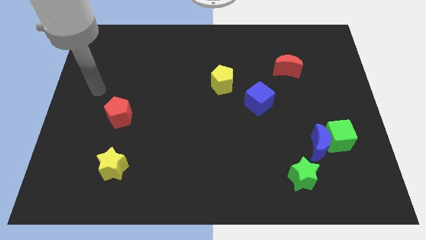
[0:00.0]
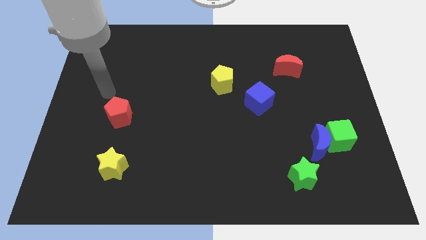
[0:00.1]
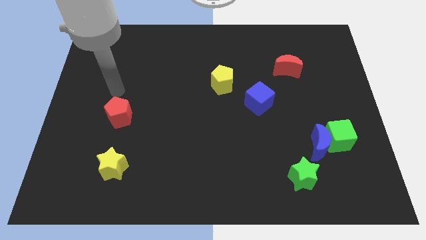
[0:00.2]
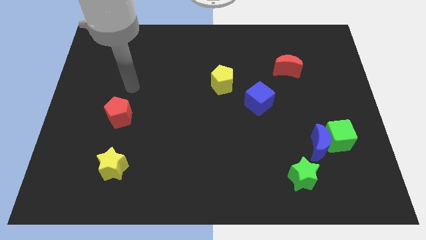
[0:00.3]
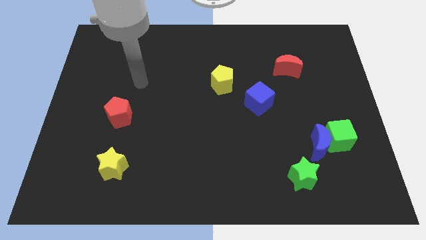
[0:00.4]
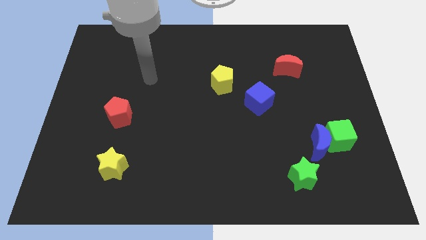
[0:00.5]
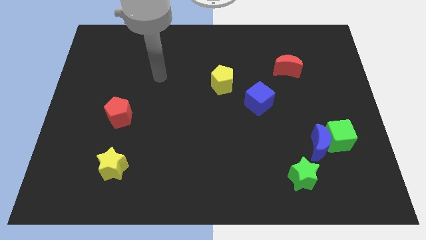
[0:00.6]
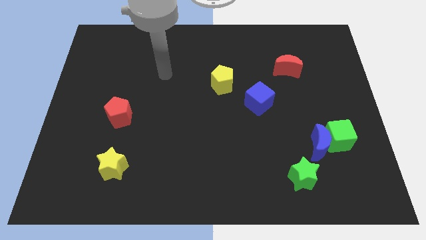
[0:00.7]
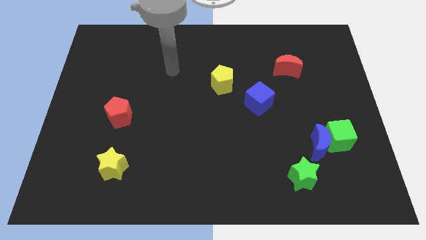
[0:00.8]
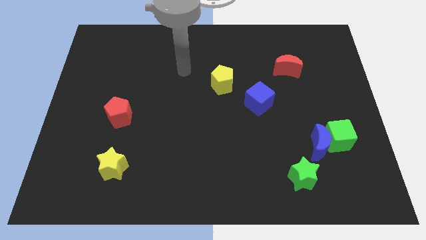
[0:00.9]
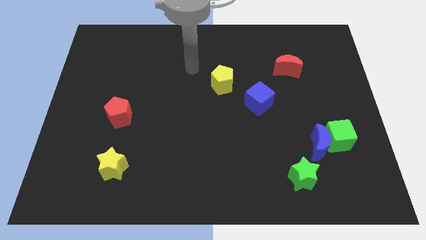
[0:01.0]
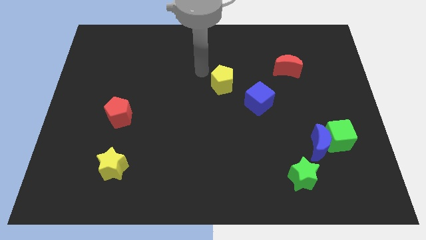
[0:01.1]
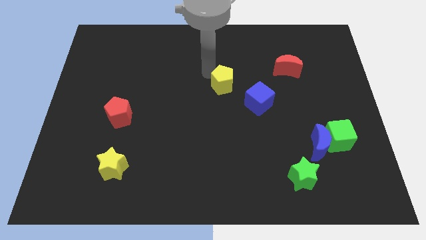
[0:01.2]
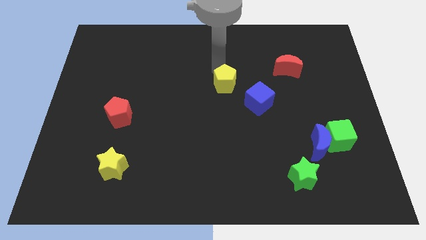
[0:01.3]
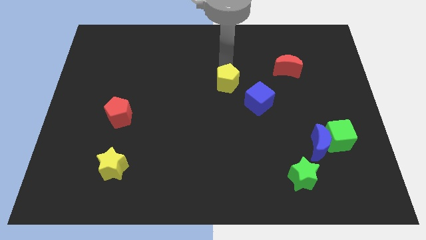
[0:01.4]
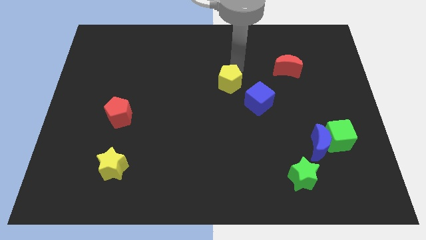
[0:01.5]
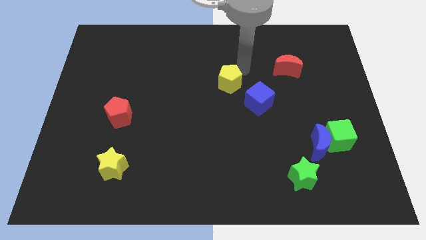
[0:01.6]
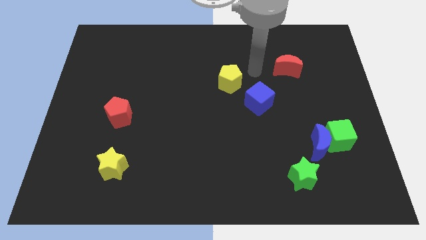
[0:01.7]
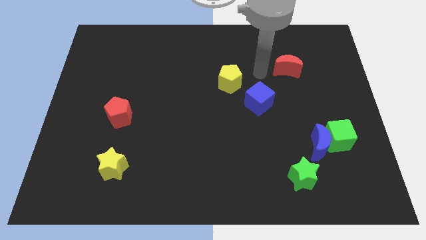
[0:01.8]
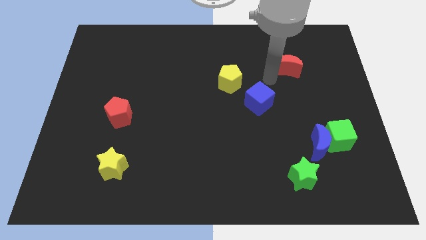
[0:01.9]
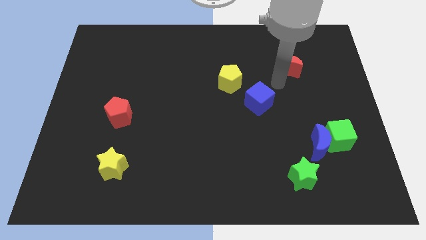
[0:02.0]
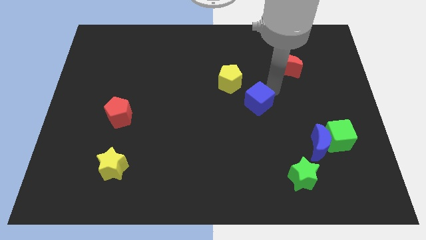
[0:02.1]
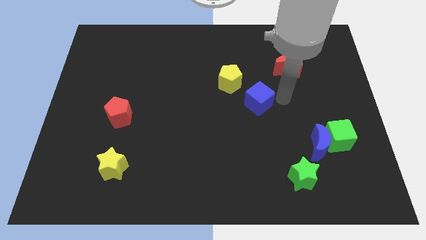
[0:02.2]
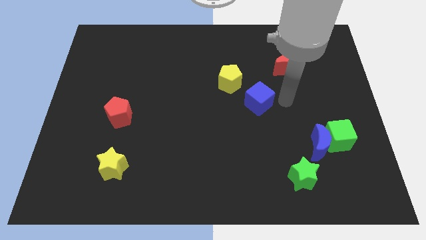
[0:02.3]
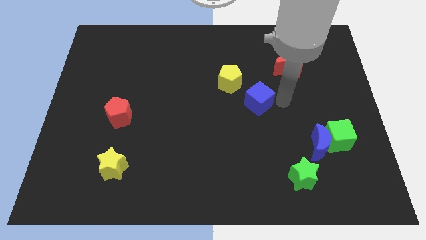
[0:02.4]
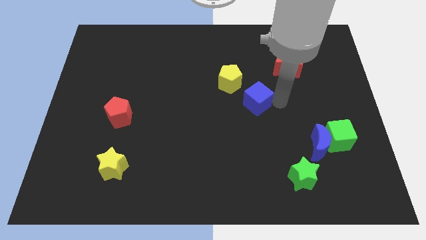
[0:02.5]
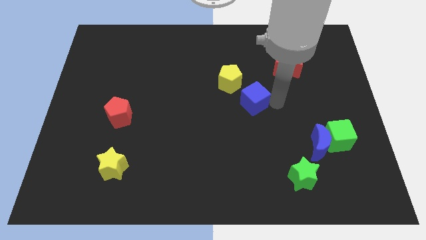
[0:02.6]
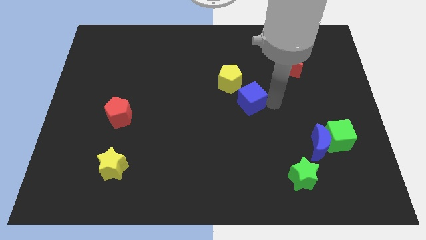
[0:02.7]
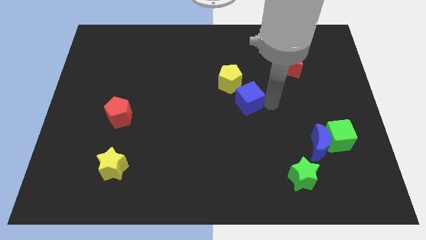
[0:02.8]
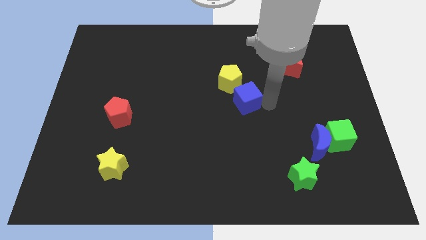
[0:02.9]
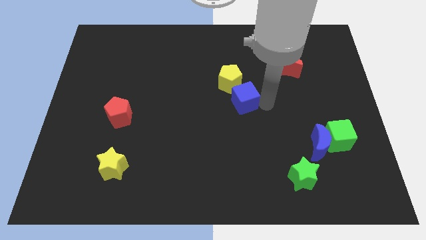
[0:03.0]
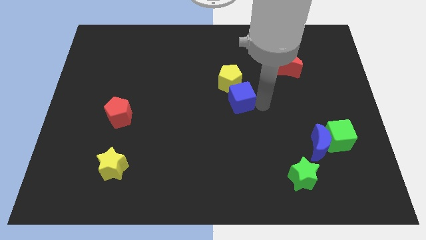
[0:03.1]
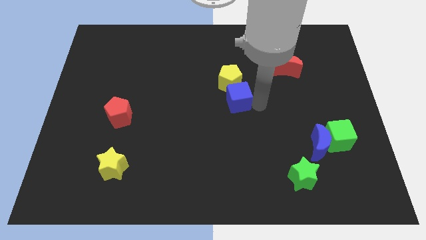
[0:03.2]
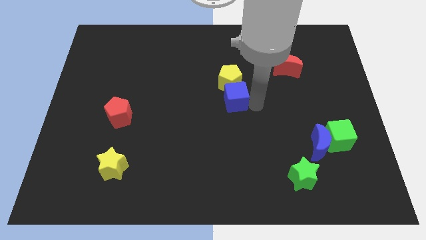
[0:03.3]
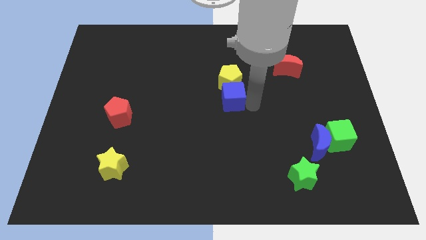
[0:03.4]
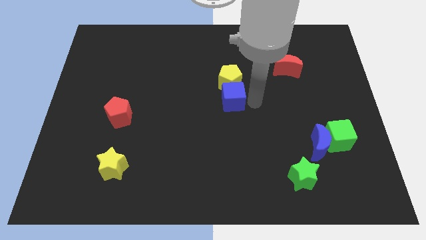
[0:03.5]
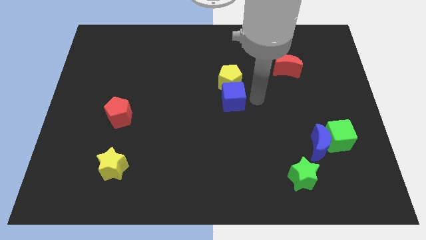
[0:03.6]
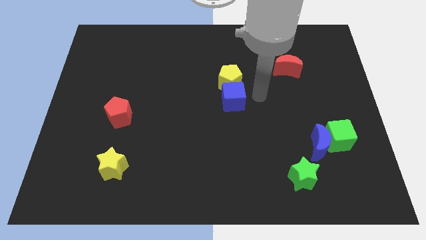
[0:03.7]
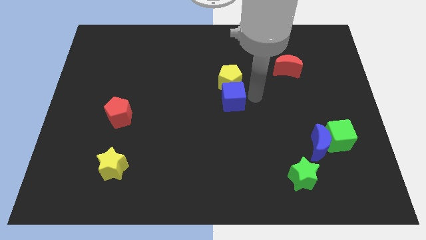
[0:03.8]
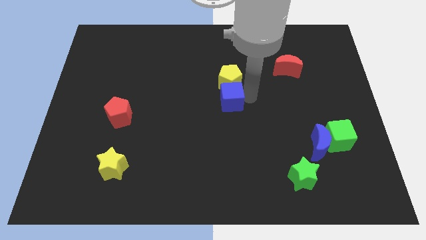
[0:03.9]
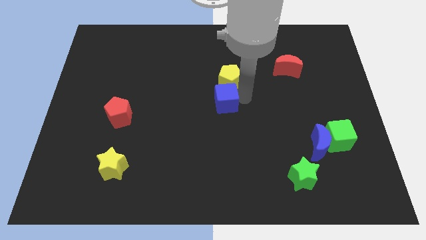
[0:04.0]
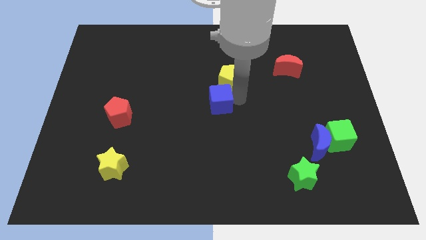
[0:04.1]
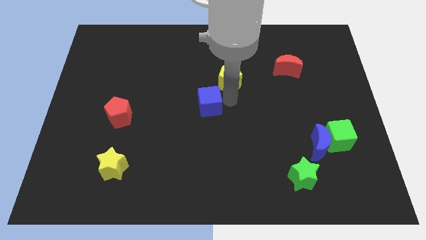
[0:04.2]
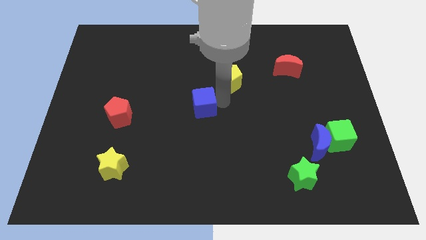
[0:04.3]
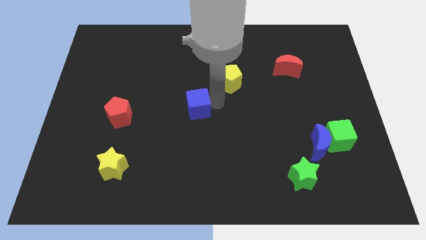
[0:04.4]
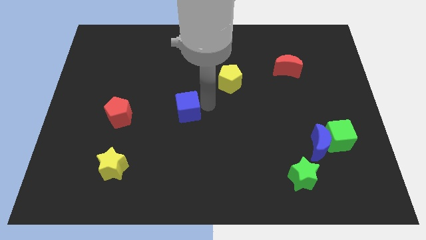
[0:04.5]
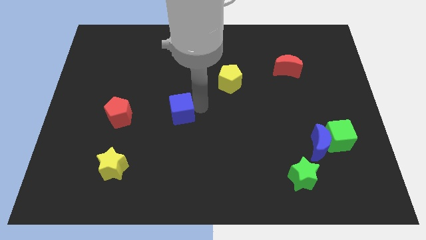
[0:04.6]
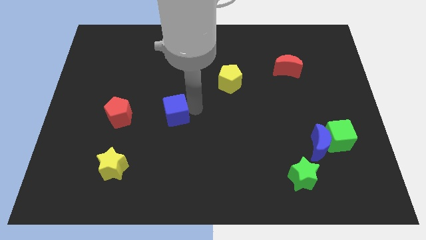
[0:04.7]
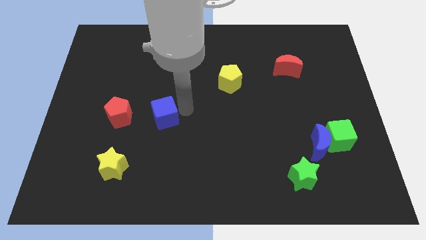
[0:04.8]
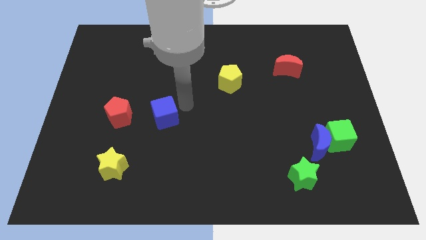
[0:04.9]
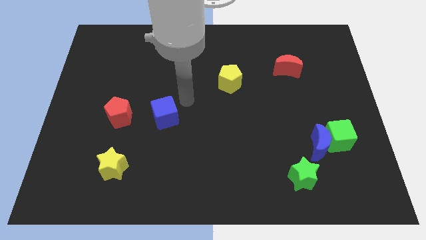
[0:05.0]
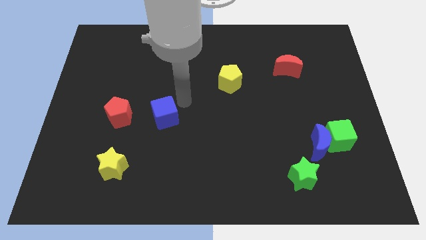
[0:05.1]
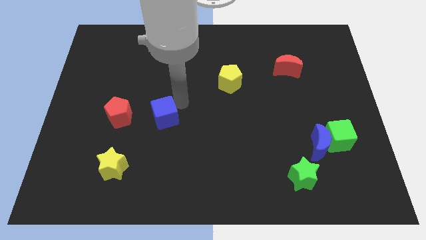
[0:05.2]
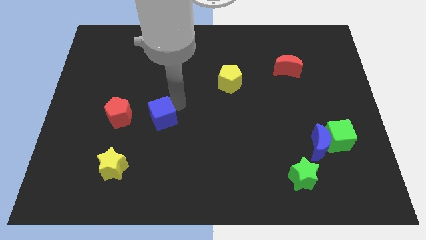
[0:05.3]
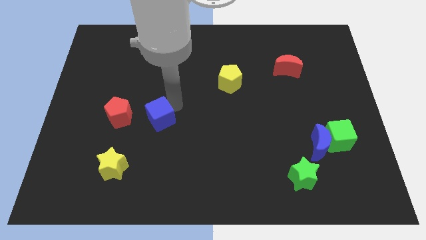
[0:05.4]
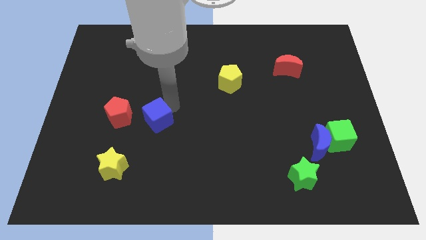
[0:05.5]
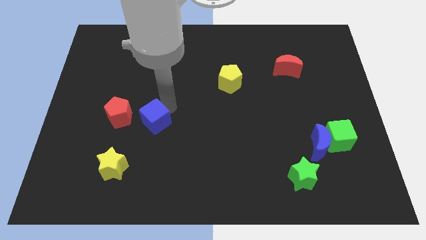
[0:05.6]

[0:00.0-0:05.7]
put the blue cube to the bottom right side of the red pentagon

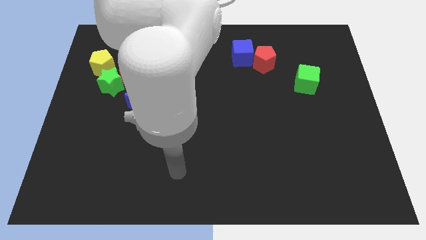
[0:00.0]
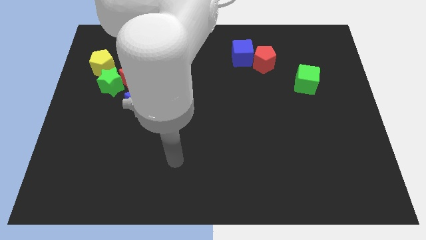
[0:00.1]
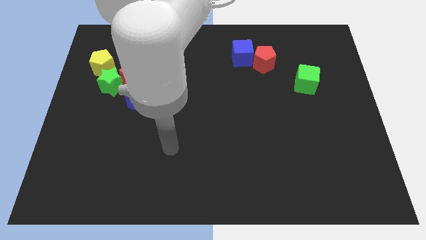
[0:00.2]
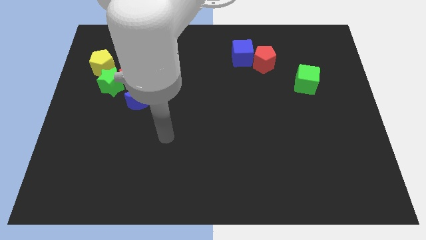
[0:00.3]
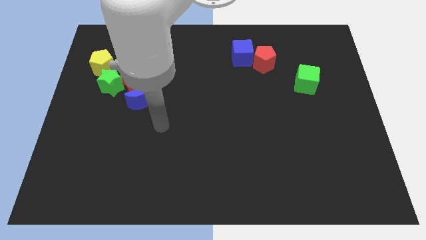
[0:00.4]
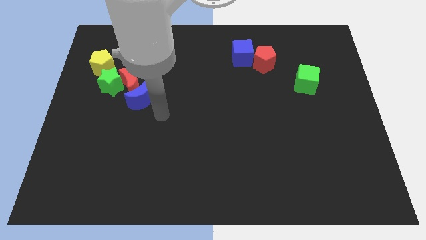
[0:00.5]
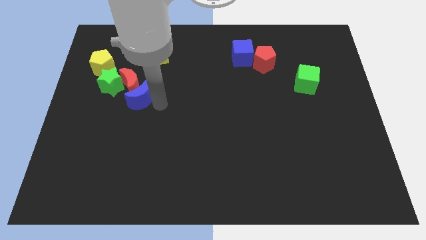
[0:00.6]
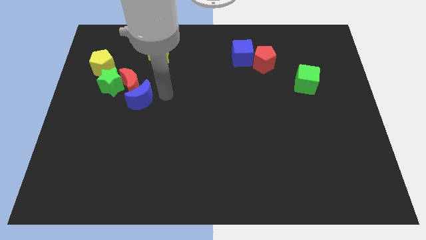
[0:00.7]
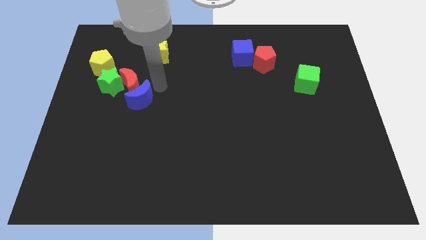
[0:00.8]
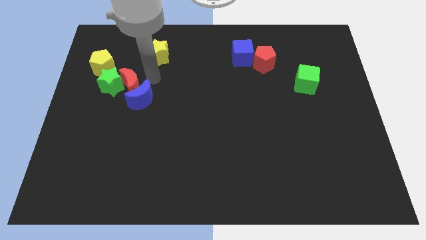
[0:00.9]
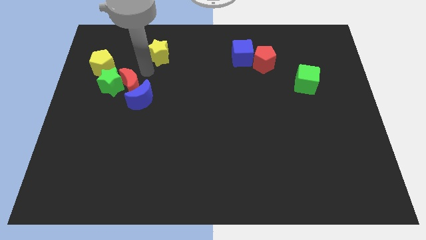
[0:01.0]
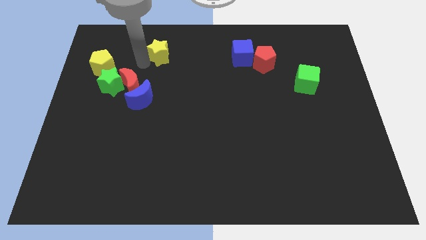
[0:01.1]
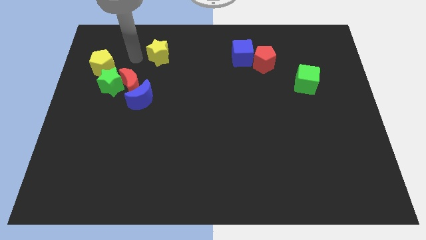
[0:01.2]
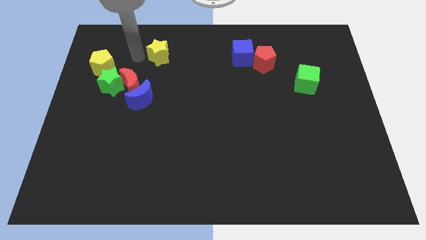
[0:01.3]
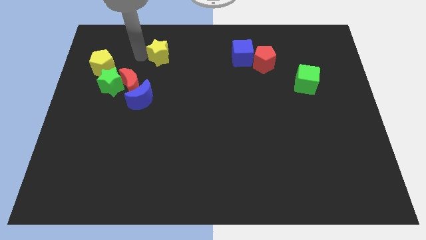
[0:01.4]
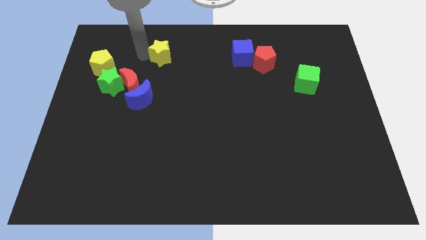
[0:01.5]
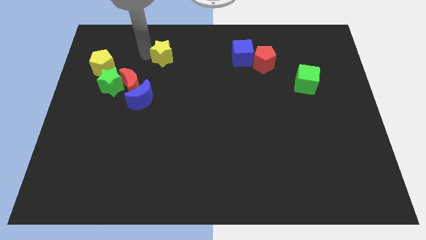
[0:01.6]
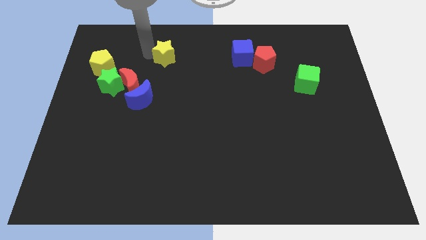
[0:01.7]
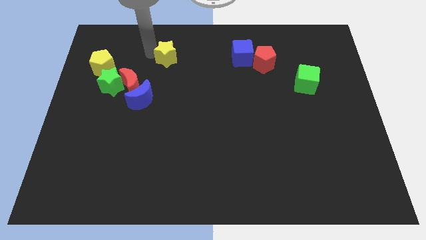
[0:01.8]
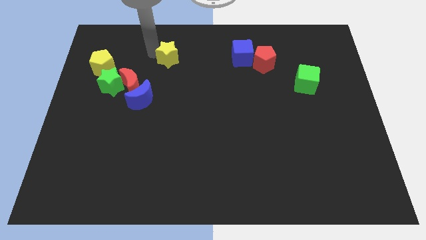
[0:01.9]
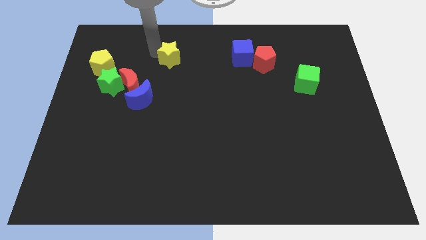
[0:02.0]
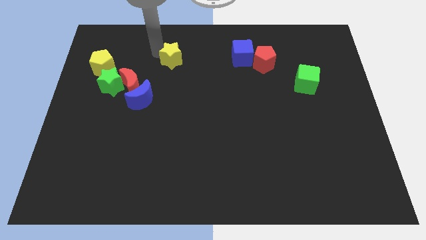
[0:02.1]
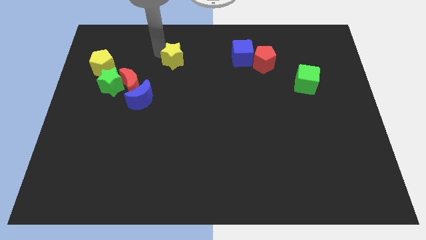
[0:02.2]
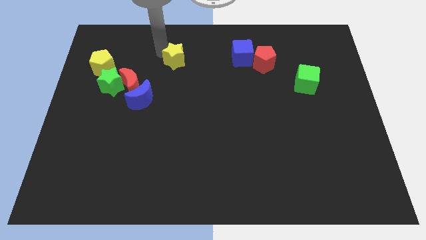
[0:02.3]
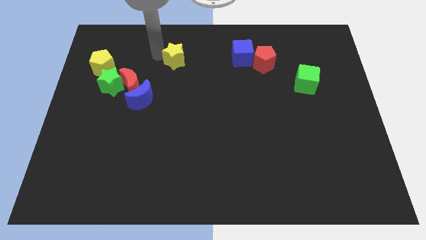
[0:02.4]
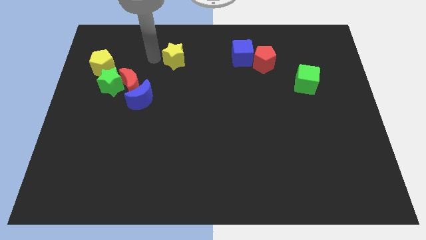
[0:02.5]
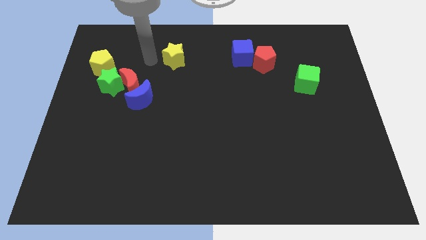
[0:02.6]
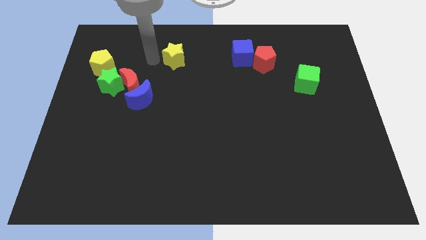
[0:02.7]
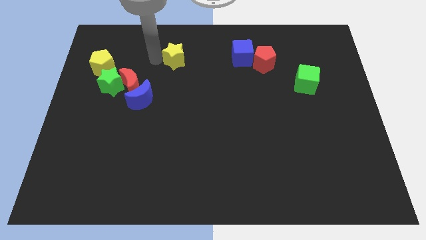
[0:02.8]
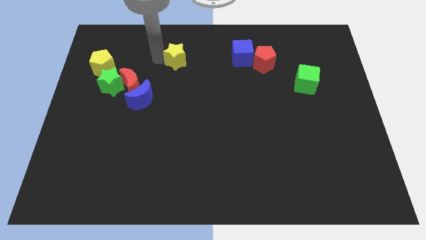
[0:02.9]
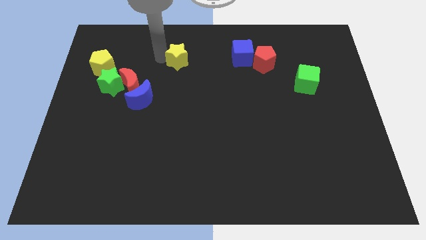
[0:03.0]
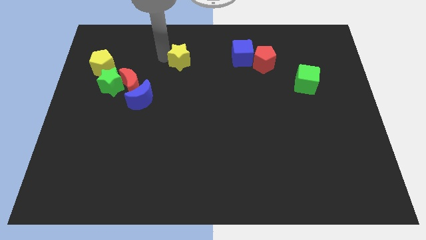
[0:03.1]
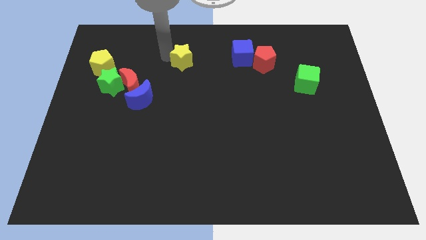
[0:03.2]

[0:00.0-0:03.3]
slide the yellow star just left of the blue cube
